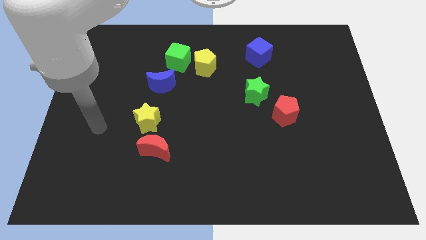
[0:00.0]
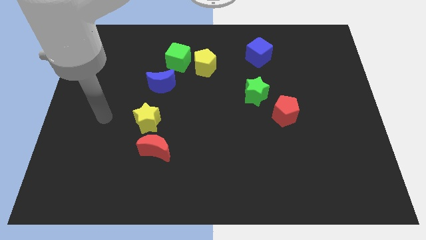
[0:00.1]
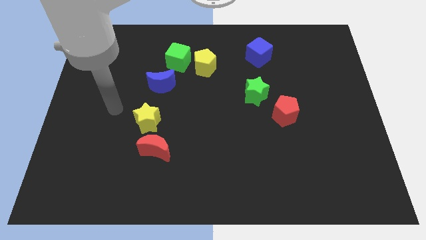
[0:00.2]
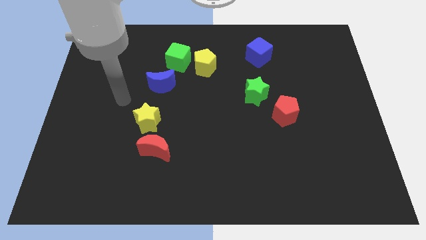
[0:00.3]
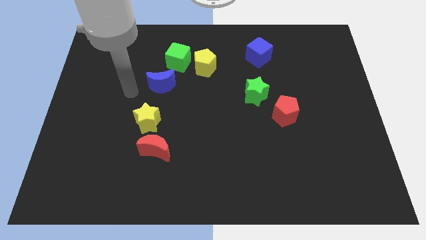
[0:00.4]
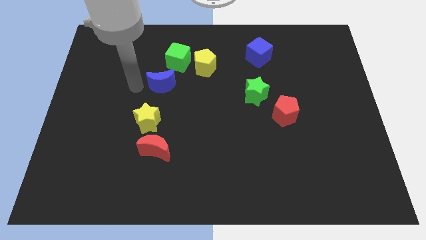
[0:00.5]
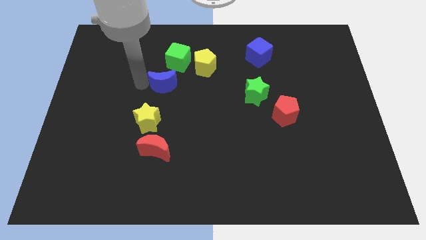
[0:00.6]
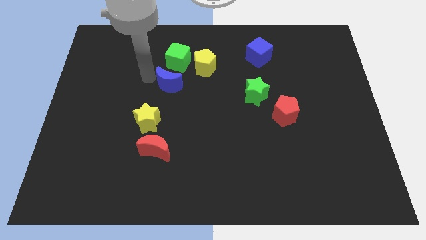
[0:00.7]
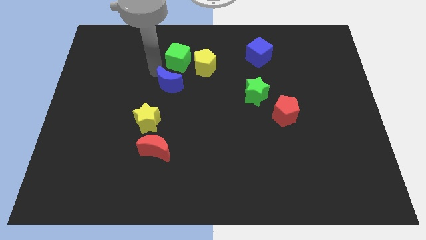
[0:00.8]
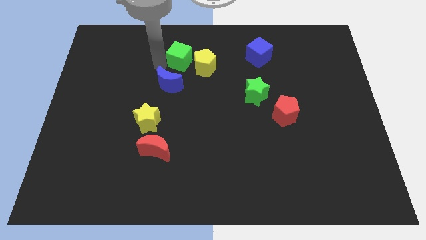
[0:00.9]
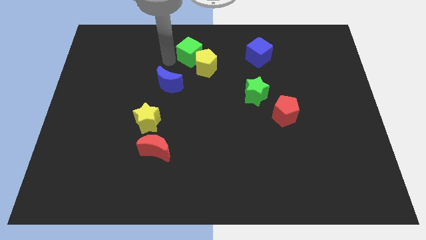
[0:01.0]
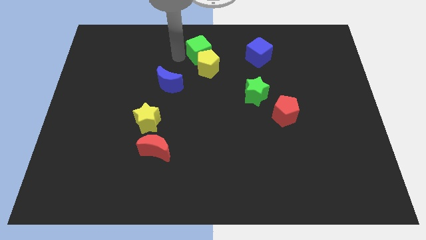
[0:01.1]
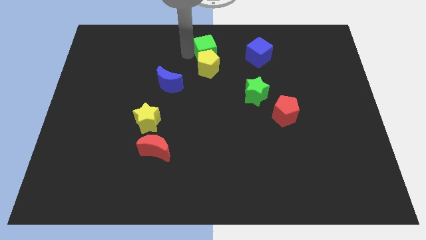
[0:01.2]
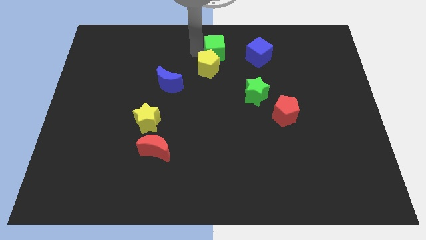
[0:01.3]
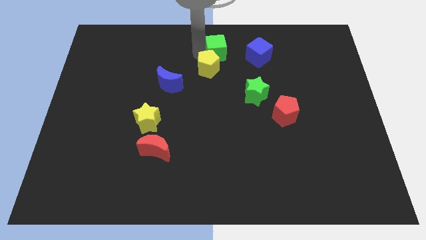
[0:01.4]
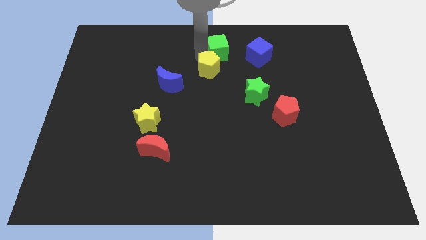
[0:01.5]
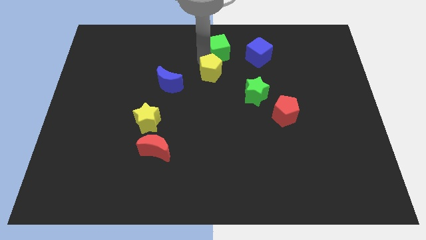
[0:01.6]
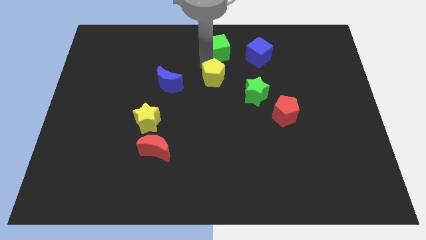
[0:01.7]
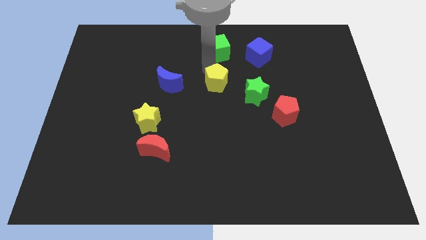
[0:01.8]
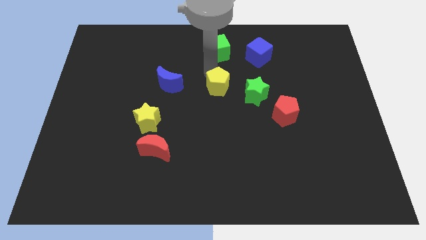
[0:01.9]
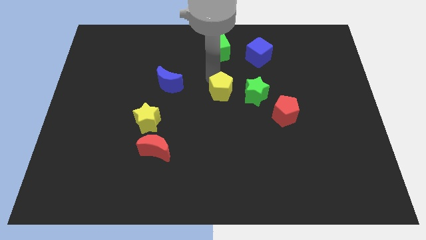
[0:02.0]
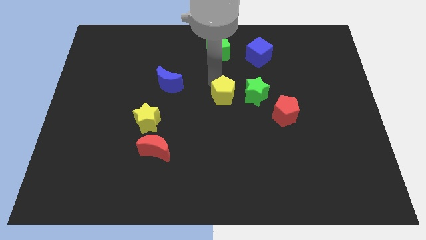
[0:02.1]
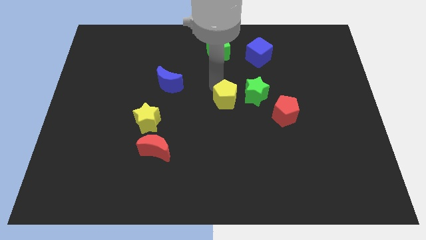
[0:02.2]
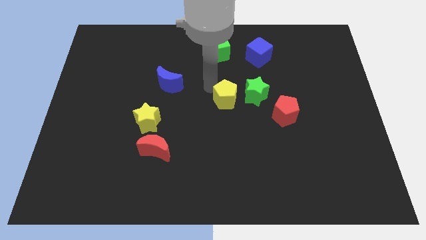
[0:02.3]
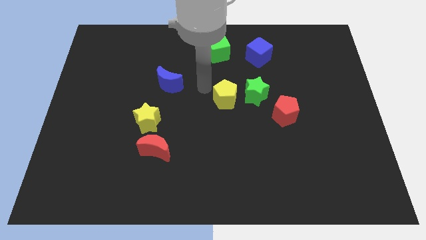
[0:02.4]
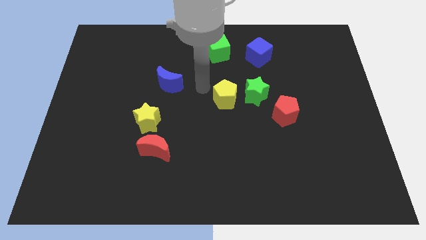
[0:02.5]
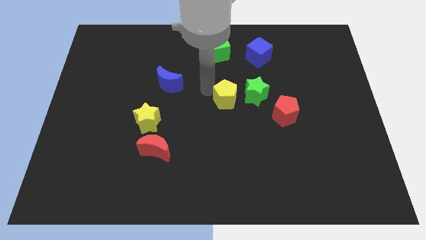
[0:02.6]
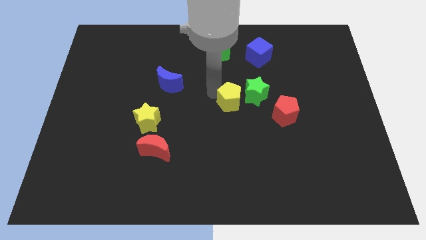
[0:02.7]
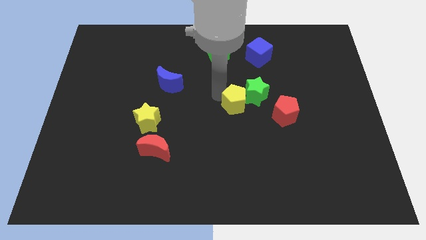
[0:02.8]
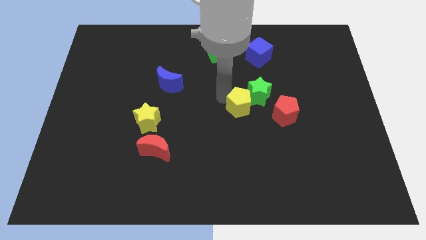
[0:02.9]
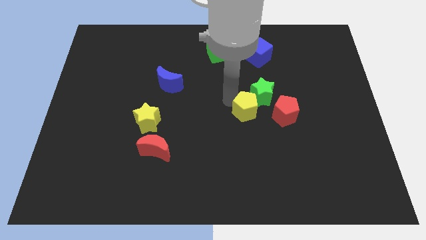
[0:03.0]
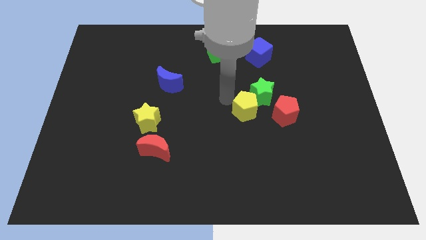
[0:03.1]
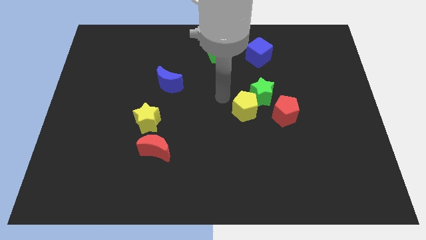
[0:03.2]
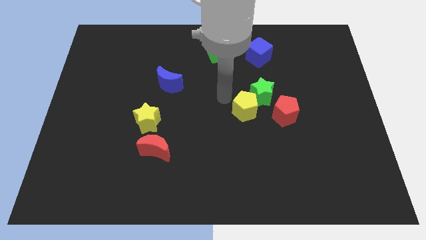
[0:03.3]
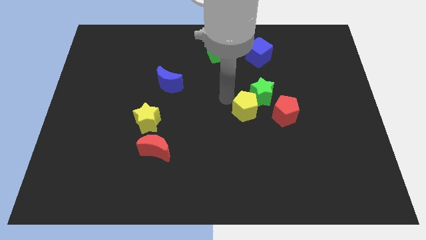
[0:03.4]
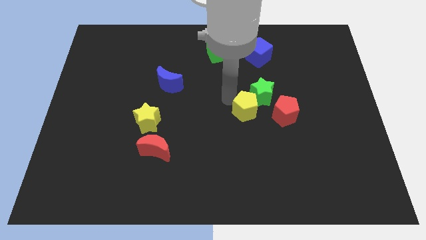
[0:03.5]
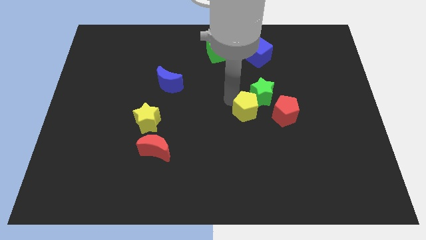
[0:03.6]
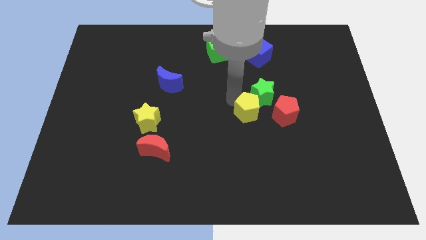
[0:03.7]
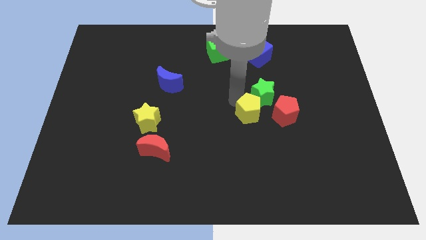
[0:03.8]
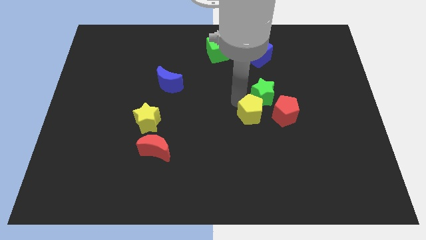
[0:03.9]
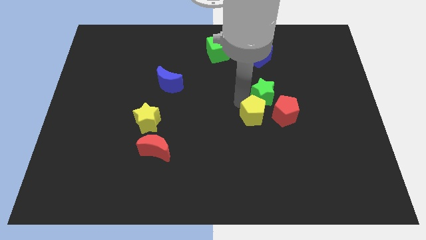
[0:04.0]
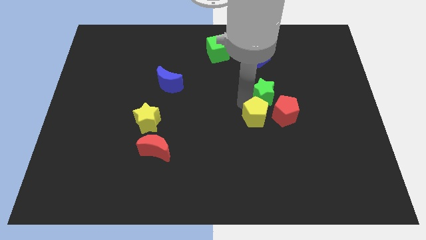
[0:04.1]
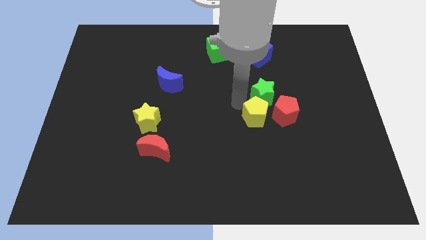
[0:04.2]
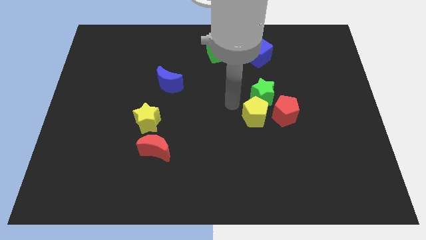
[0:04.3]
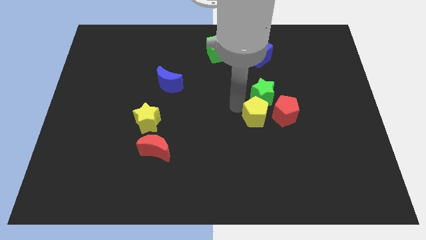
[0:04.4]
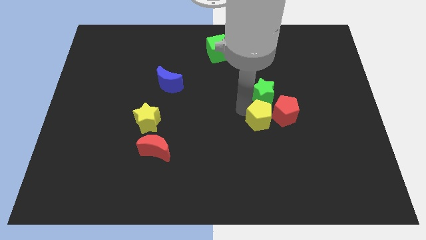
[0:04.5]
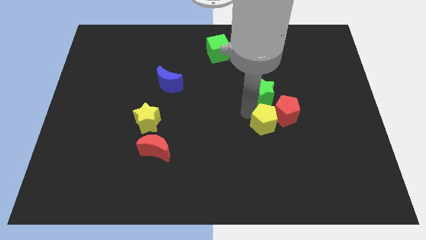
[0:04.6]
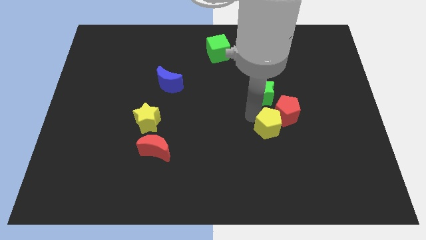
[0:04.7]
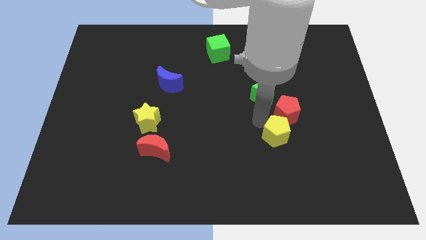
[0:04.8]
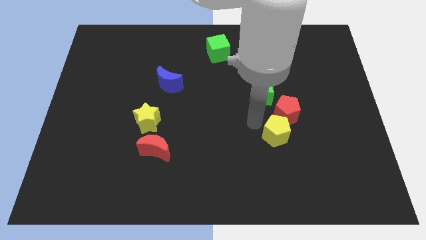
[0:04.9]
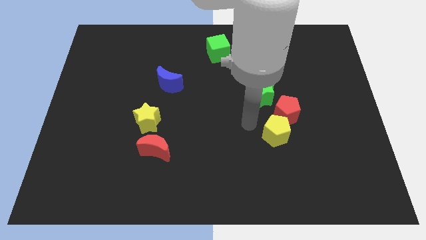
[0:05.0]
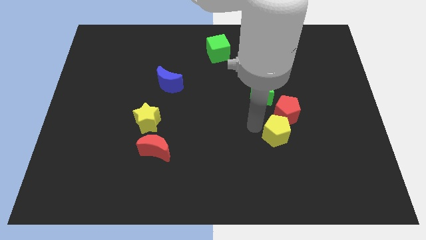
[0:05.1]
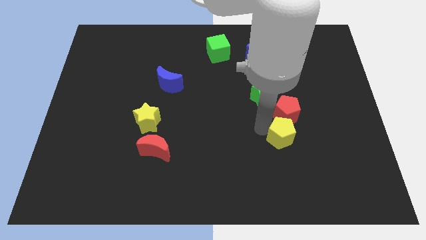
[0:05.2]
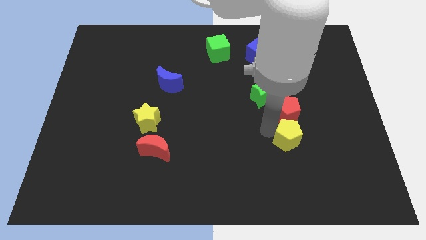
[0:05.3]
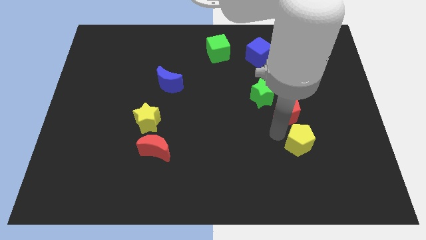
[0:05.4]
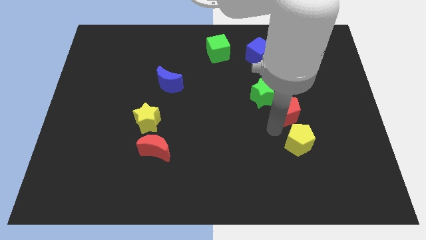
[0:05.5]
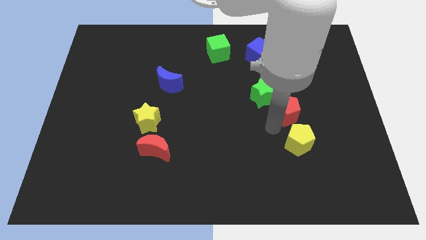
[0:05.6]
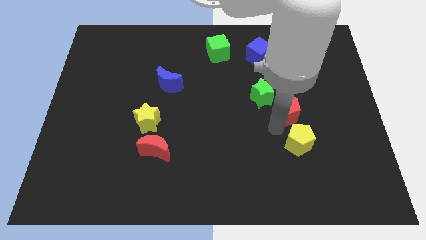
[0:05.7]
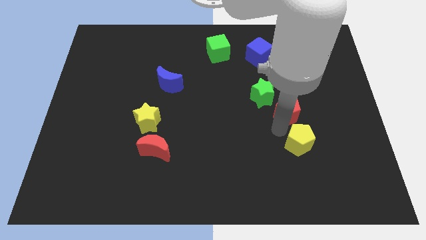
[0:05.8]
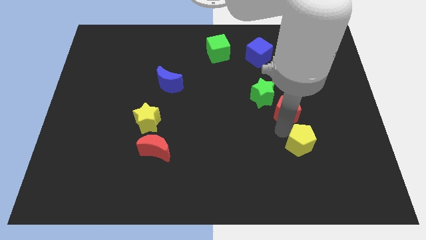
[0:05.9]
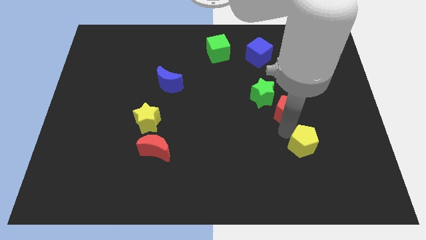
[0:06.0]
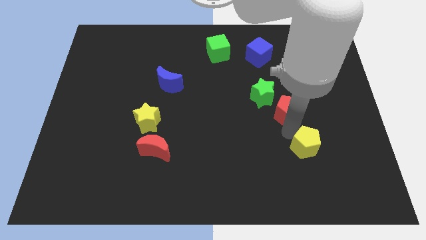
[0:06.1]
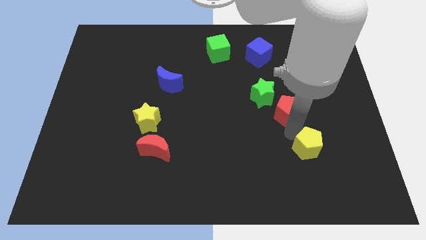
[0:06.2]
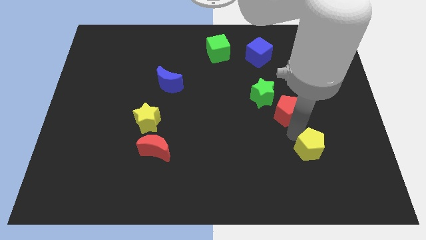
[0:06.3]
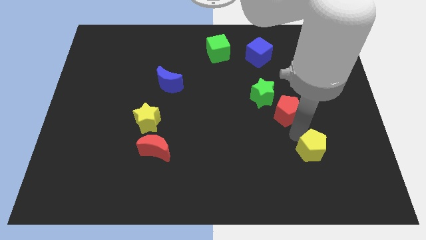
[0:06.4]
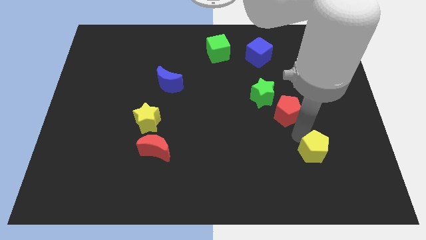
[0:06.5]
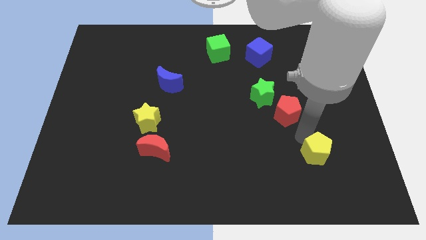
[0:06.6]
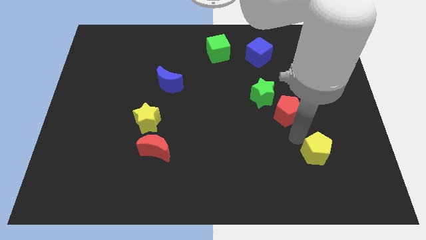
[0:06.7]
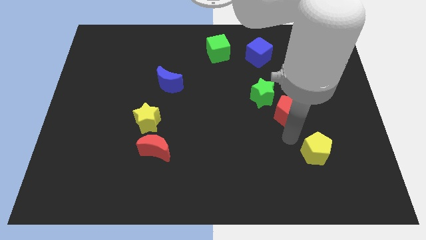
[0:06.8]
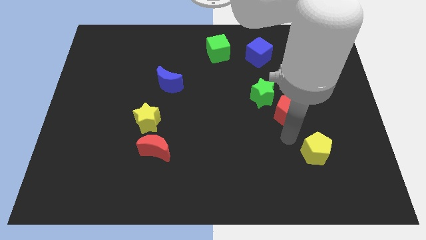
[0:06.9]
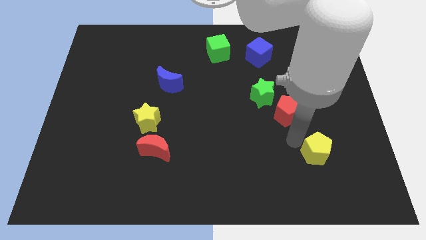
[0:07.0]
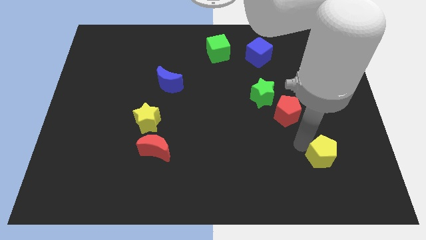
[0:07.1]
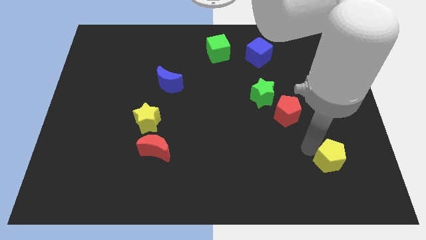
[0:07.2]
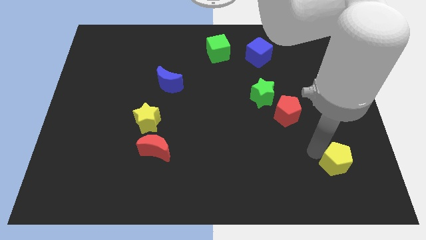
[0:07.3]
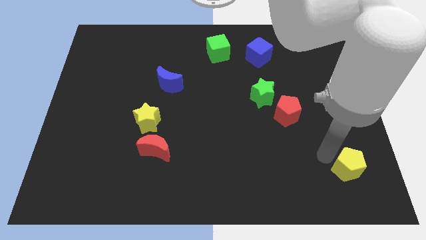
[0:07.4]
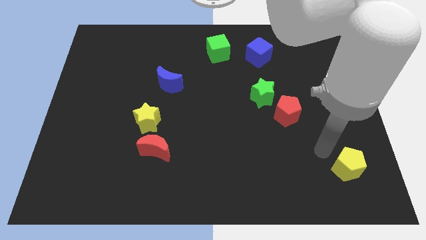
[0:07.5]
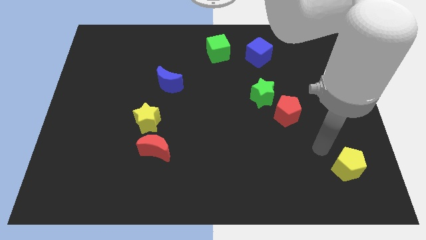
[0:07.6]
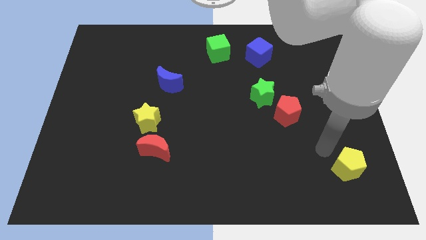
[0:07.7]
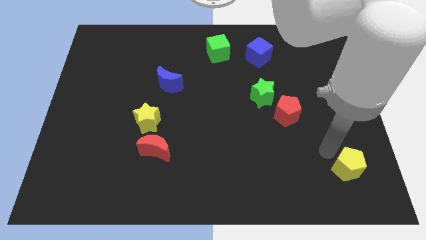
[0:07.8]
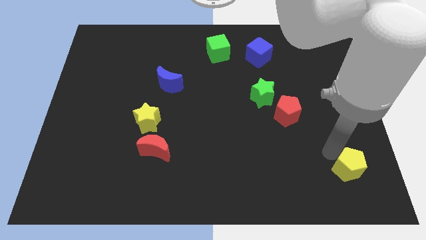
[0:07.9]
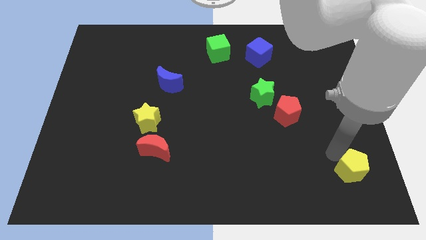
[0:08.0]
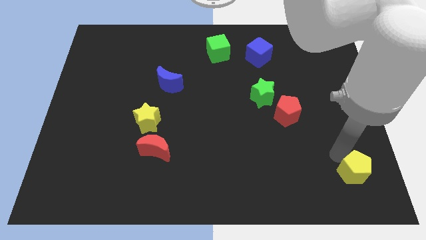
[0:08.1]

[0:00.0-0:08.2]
move the yellow pentagon to the bottom right corner
